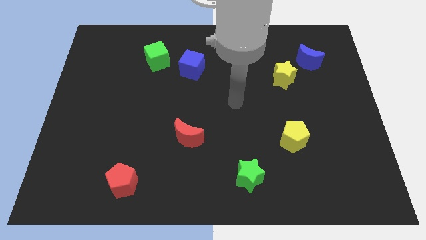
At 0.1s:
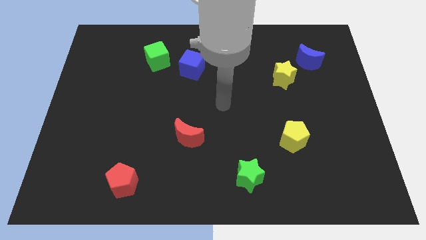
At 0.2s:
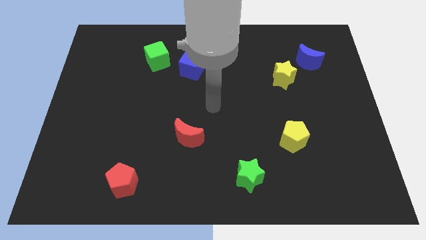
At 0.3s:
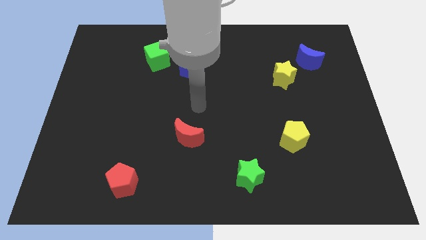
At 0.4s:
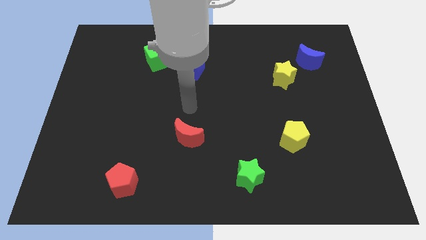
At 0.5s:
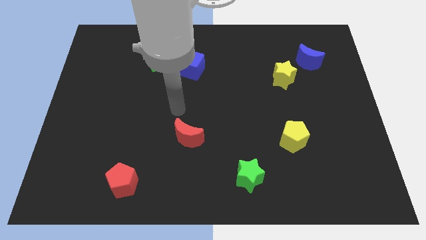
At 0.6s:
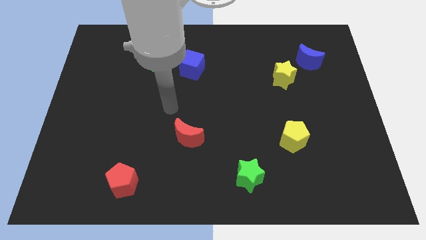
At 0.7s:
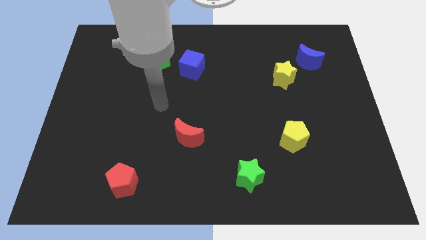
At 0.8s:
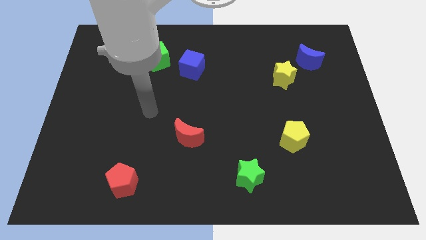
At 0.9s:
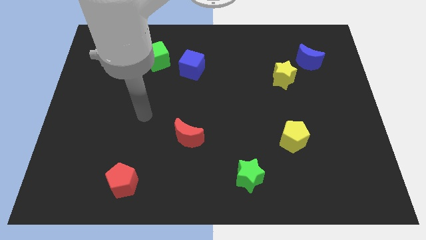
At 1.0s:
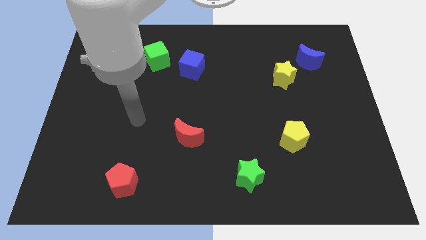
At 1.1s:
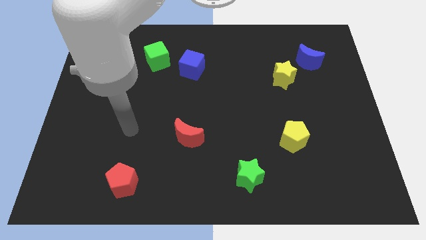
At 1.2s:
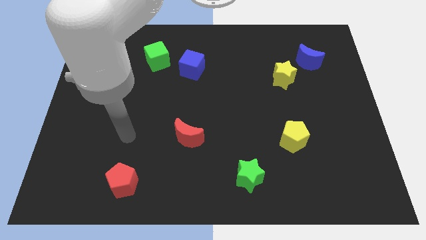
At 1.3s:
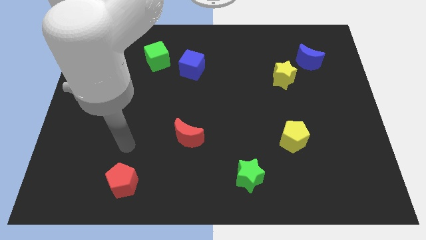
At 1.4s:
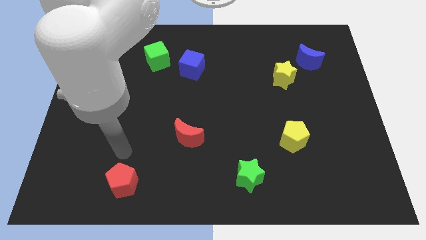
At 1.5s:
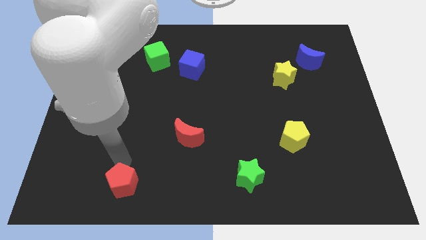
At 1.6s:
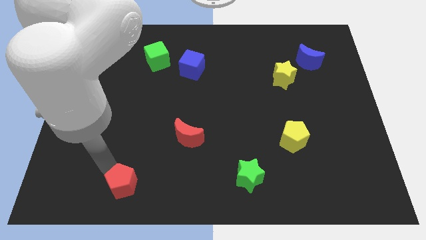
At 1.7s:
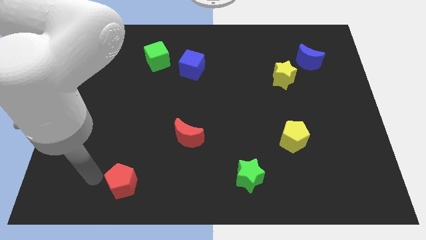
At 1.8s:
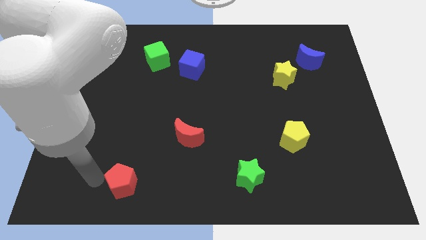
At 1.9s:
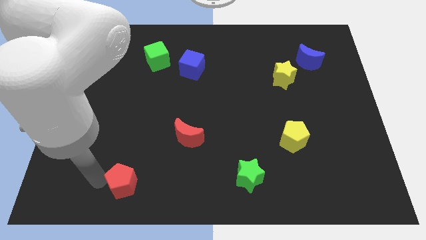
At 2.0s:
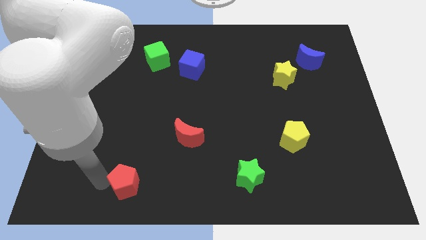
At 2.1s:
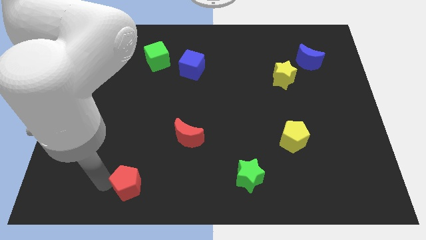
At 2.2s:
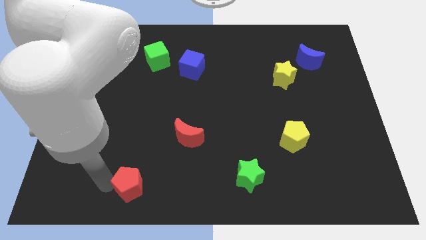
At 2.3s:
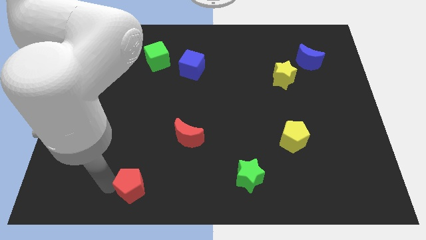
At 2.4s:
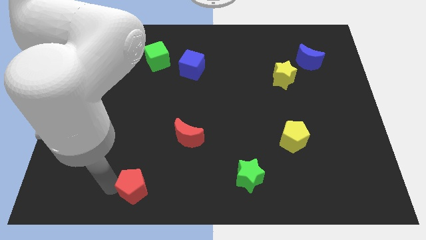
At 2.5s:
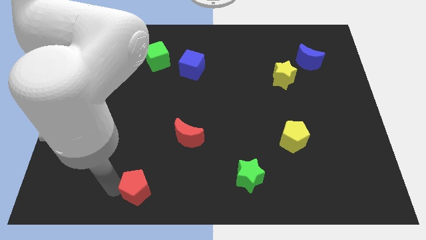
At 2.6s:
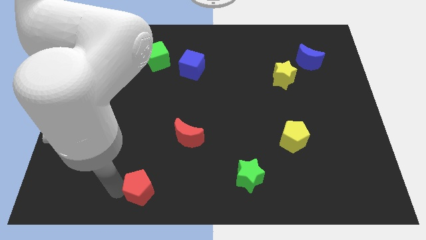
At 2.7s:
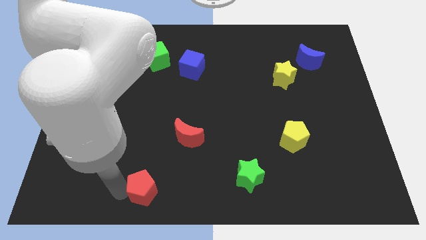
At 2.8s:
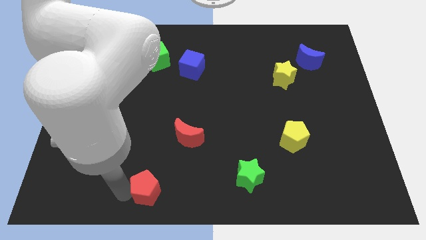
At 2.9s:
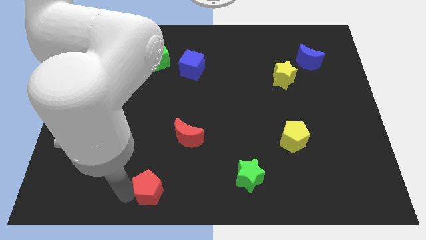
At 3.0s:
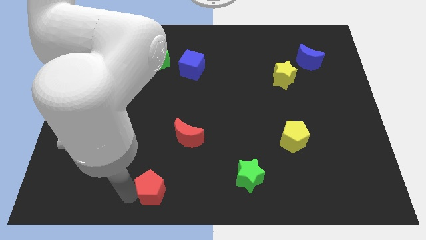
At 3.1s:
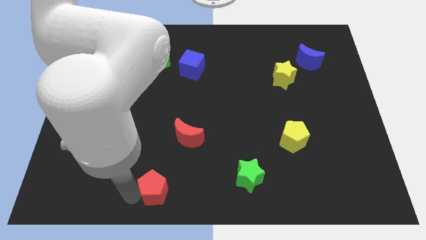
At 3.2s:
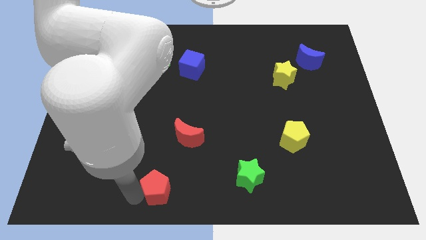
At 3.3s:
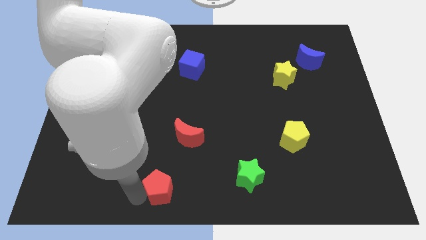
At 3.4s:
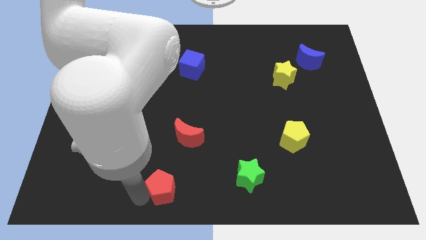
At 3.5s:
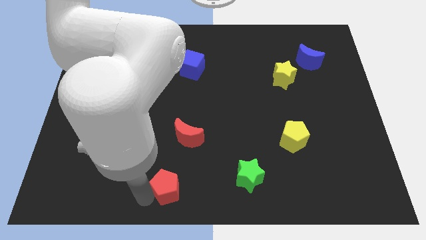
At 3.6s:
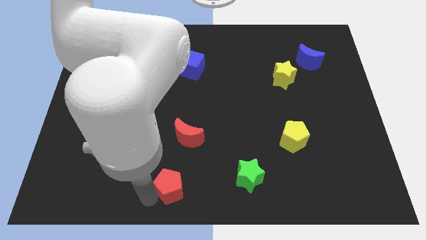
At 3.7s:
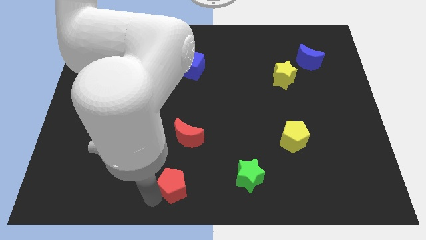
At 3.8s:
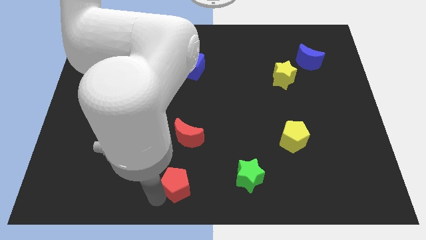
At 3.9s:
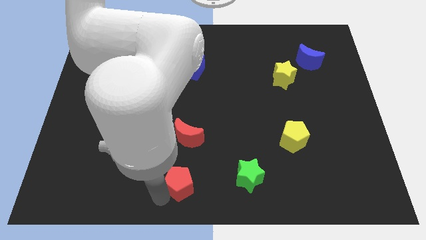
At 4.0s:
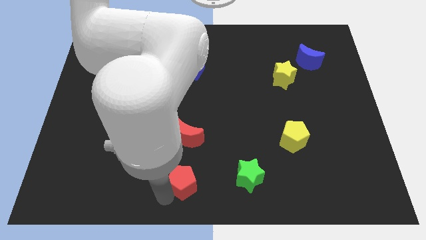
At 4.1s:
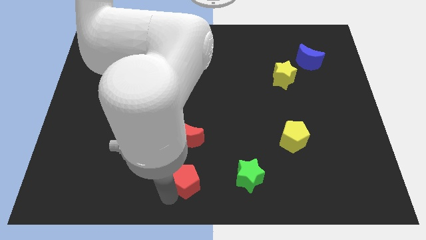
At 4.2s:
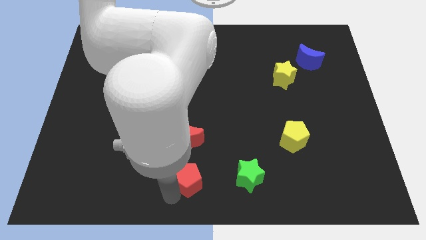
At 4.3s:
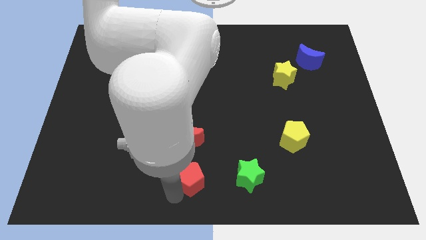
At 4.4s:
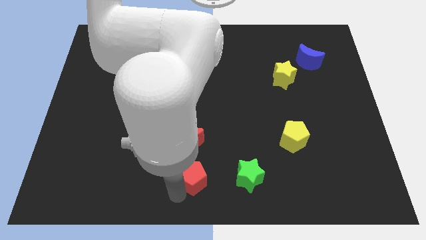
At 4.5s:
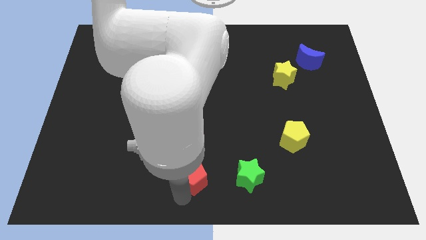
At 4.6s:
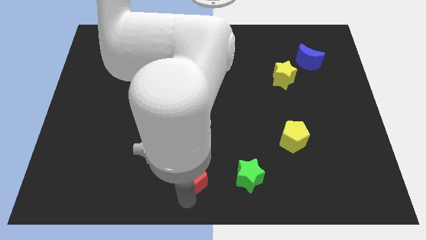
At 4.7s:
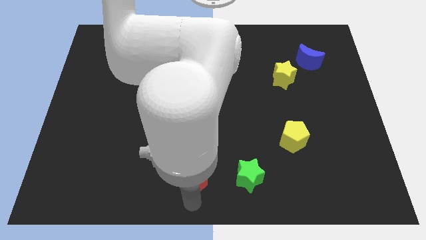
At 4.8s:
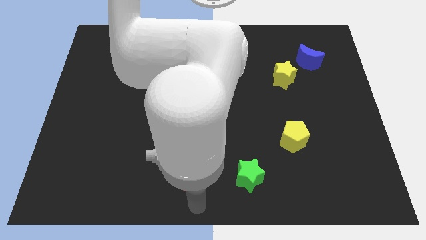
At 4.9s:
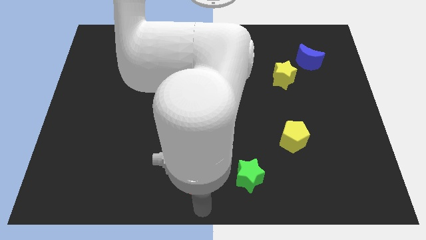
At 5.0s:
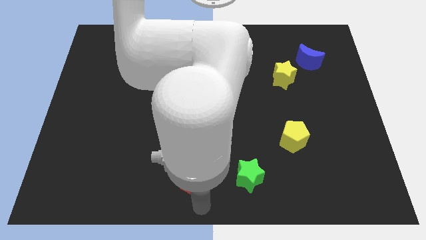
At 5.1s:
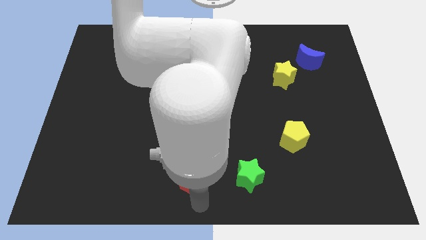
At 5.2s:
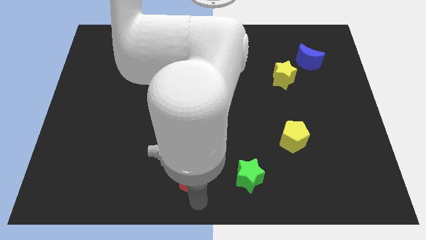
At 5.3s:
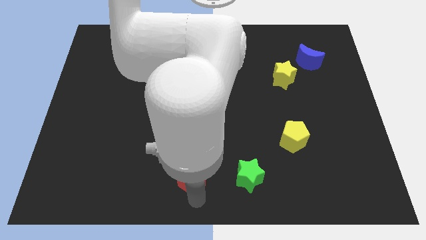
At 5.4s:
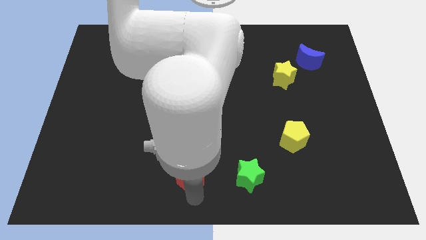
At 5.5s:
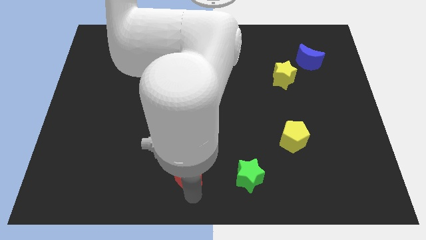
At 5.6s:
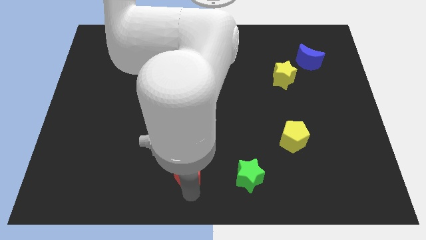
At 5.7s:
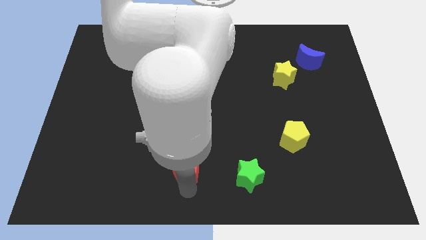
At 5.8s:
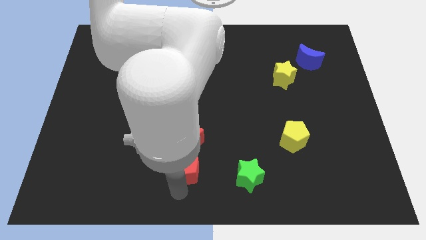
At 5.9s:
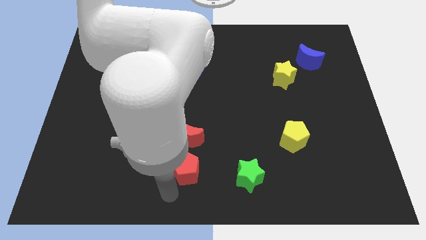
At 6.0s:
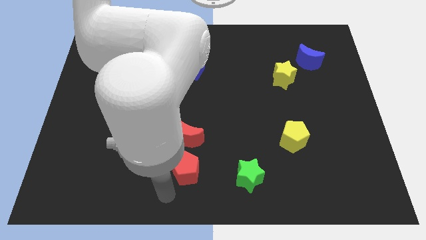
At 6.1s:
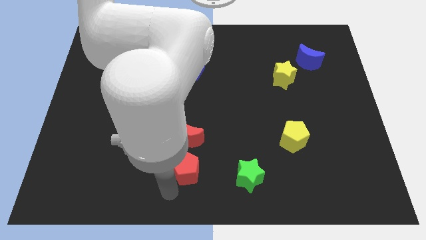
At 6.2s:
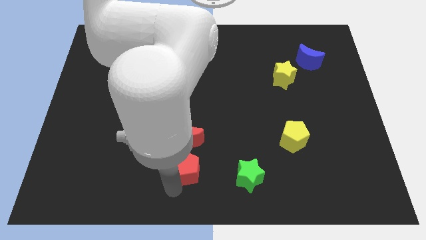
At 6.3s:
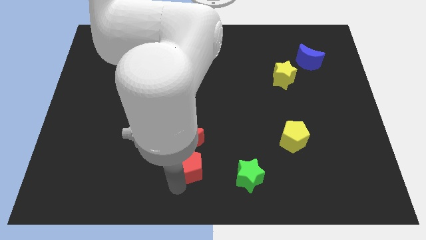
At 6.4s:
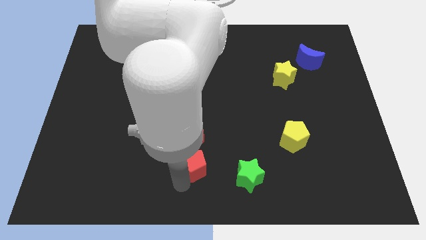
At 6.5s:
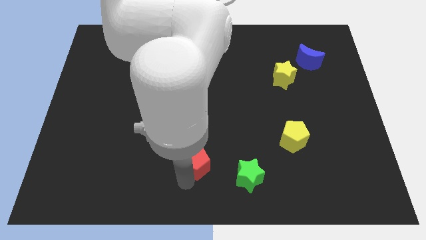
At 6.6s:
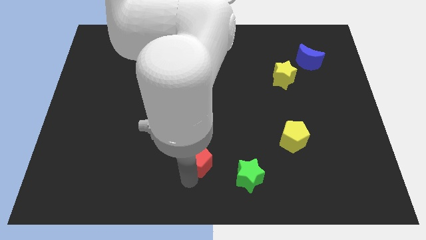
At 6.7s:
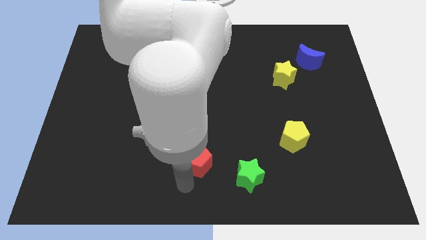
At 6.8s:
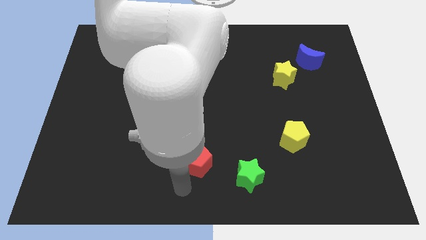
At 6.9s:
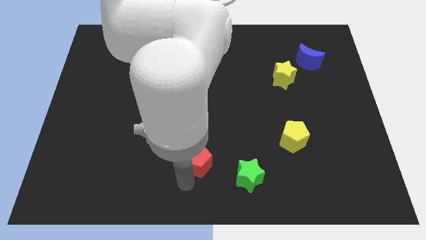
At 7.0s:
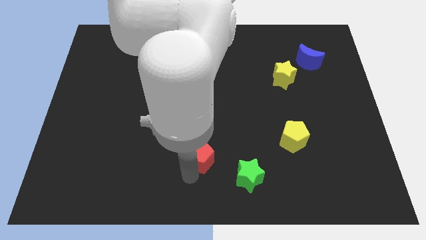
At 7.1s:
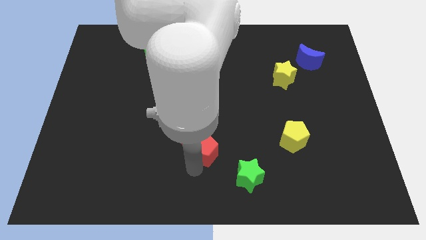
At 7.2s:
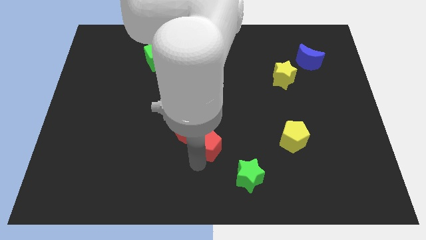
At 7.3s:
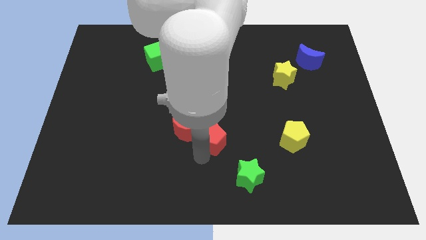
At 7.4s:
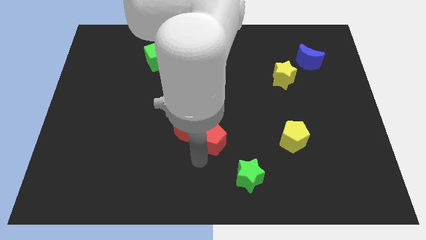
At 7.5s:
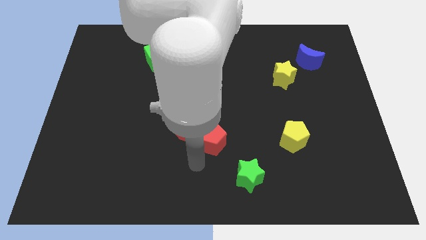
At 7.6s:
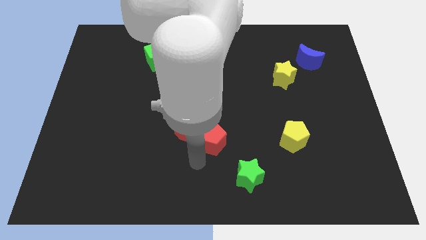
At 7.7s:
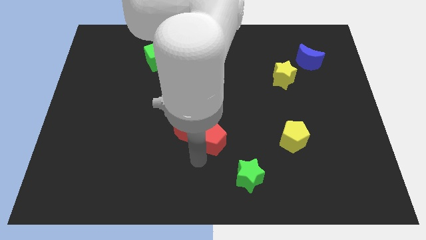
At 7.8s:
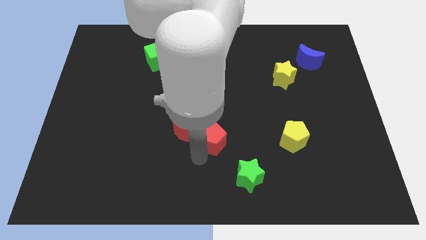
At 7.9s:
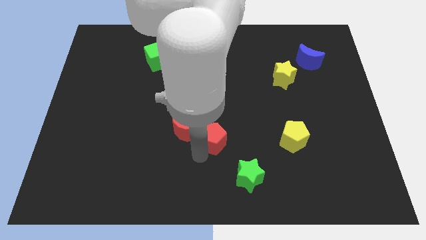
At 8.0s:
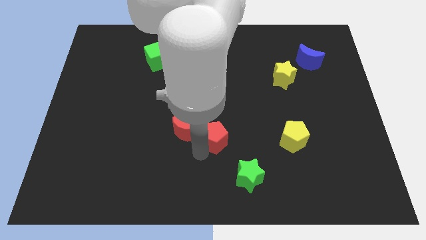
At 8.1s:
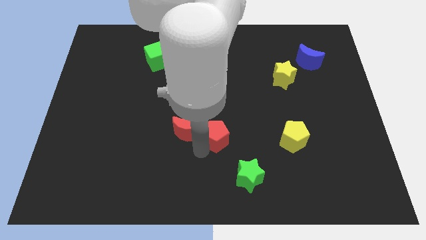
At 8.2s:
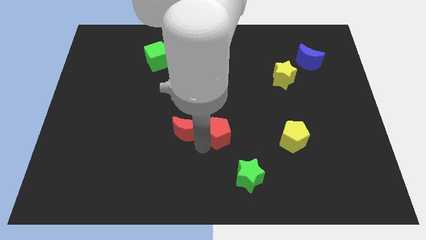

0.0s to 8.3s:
move the red pentagon upwards and then to the right
